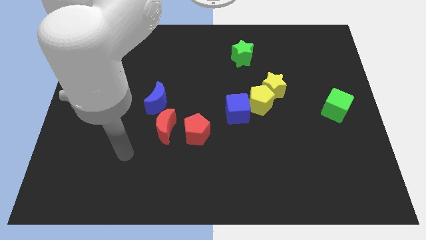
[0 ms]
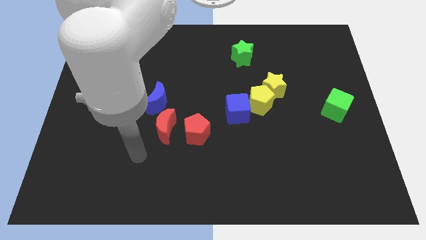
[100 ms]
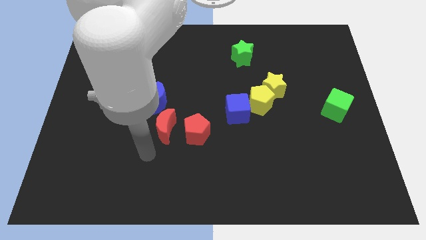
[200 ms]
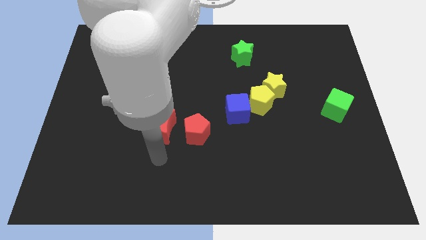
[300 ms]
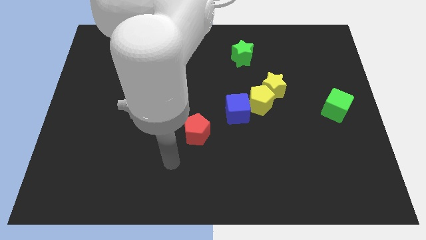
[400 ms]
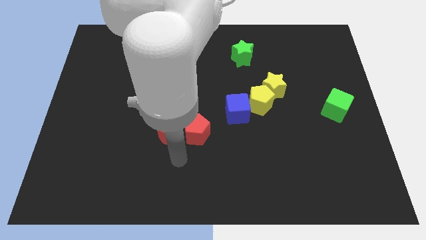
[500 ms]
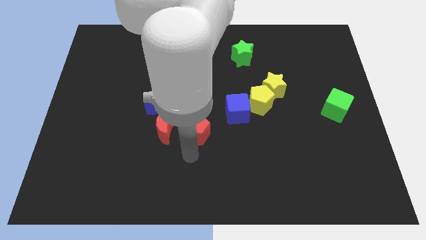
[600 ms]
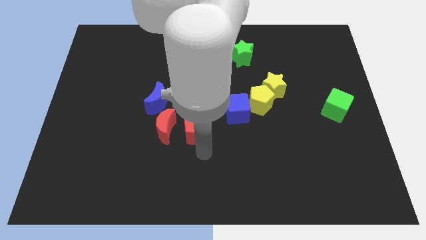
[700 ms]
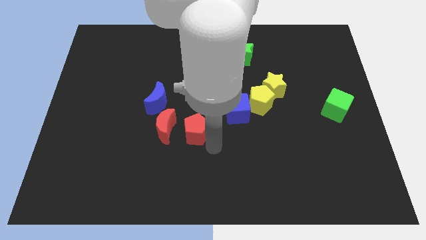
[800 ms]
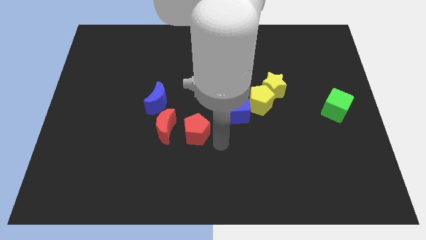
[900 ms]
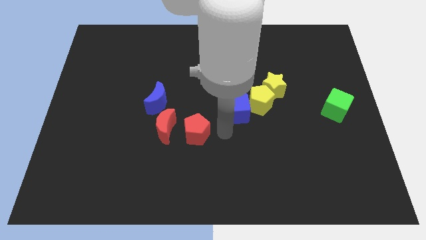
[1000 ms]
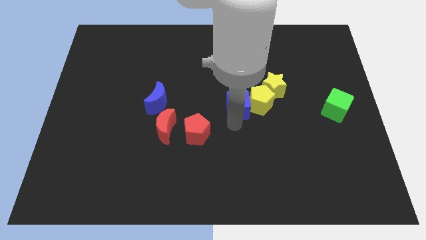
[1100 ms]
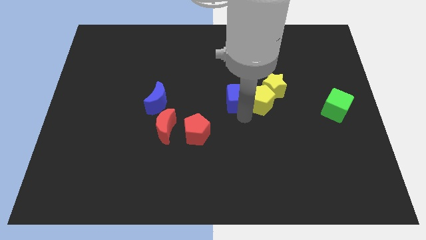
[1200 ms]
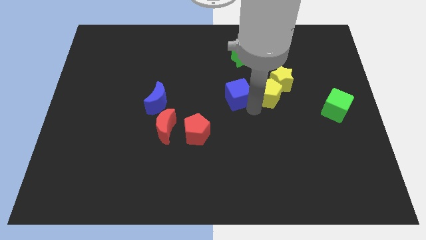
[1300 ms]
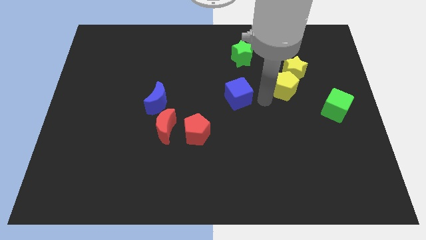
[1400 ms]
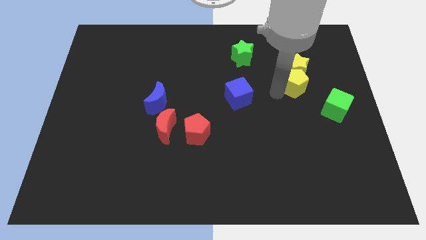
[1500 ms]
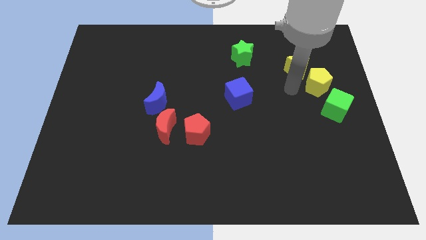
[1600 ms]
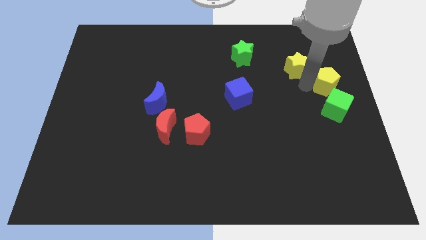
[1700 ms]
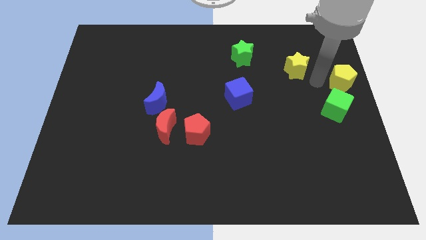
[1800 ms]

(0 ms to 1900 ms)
pull the yellow star apart from the yellow pentagon

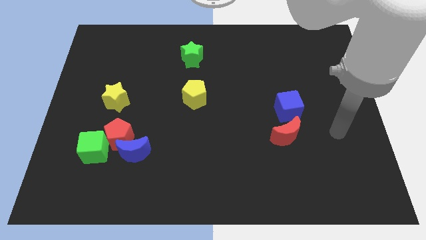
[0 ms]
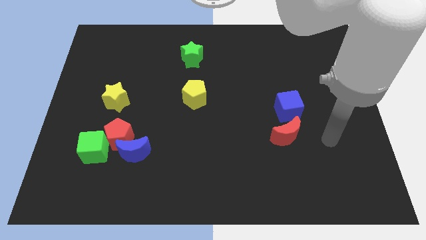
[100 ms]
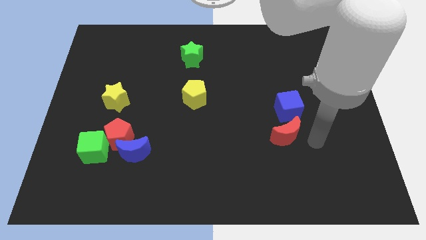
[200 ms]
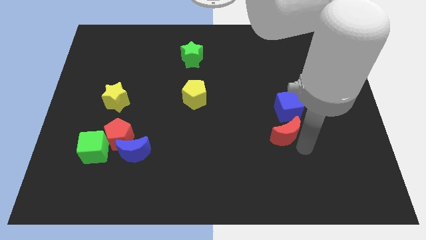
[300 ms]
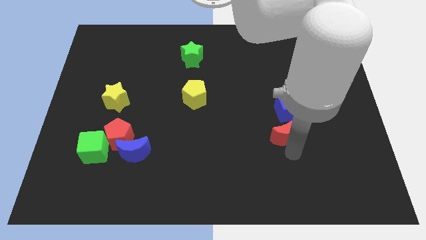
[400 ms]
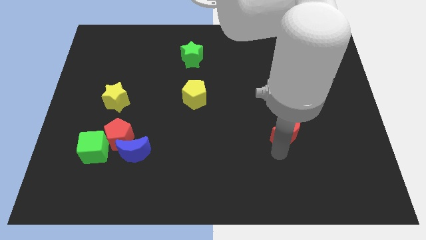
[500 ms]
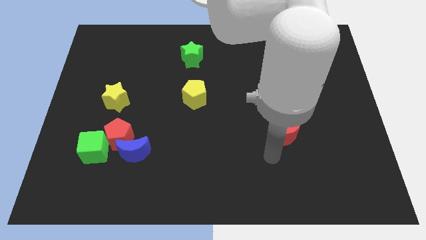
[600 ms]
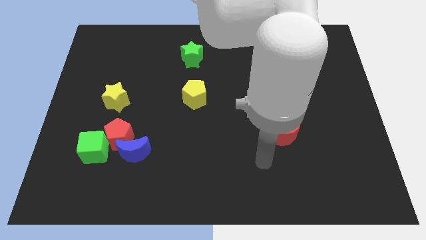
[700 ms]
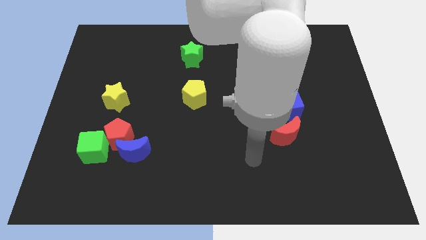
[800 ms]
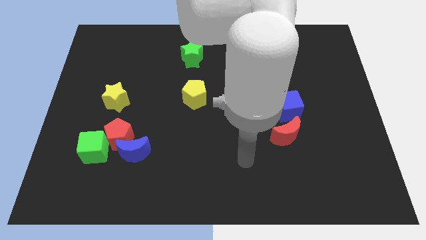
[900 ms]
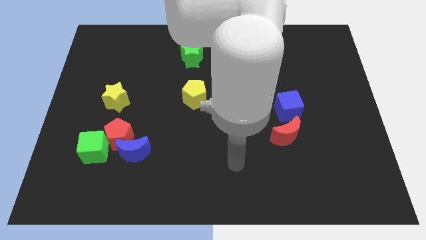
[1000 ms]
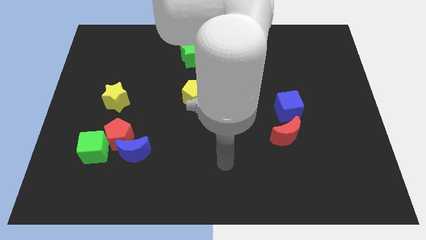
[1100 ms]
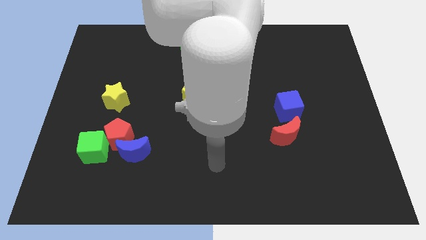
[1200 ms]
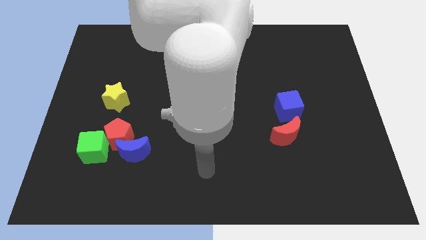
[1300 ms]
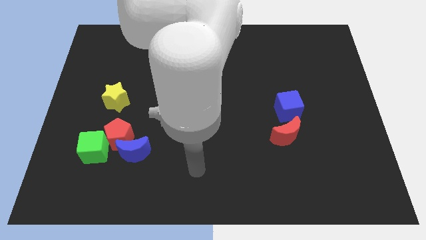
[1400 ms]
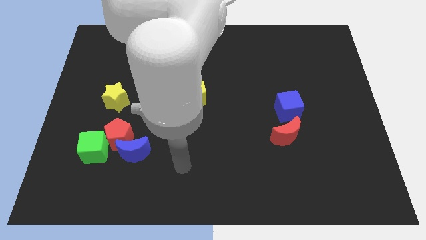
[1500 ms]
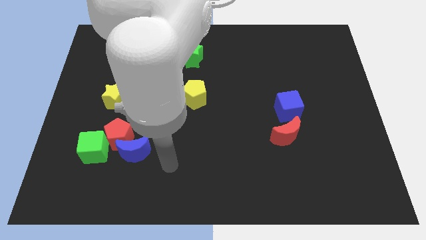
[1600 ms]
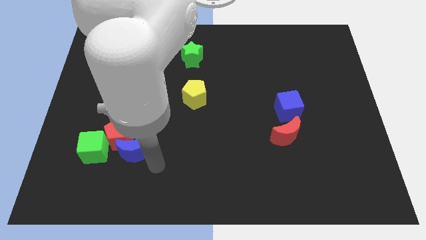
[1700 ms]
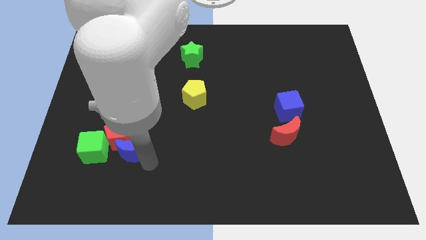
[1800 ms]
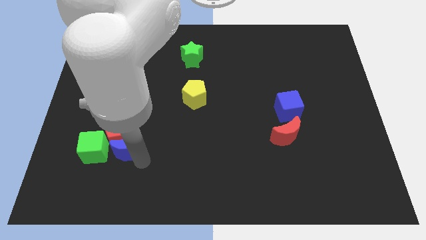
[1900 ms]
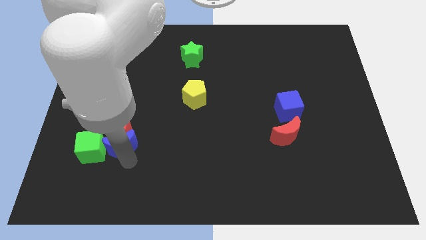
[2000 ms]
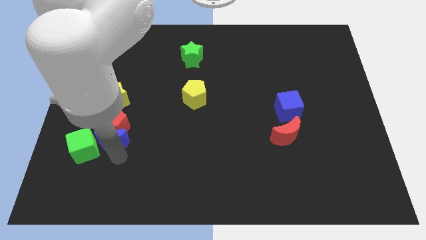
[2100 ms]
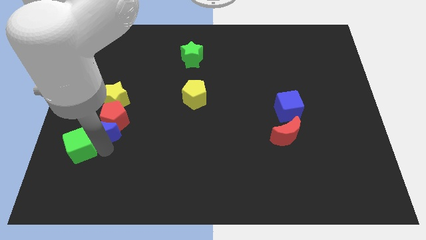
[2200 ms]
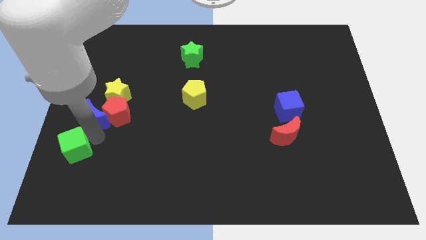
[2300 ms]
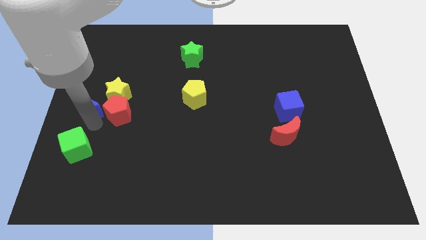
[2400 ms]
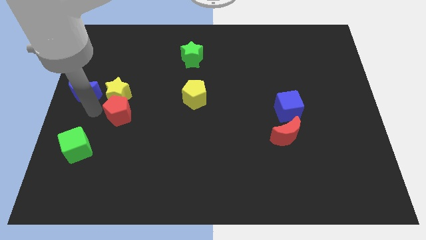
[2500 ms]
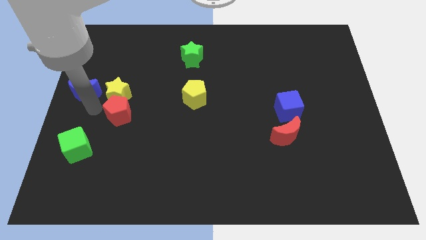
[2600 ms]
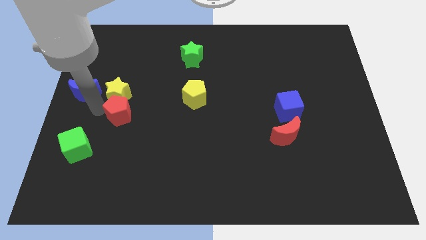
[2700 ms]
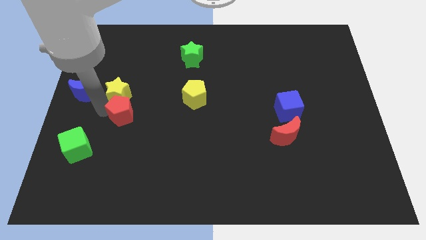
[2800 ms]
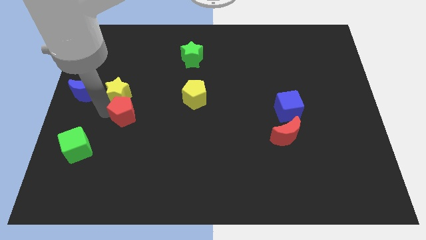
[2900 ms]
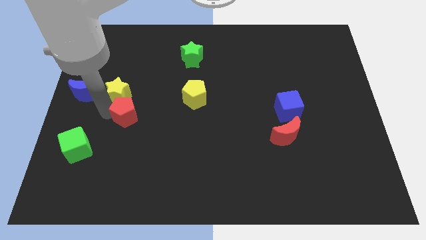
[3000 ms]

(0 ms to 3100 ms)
separate the red pentagon from the blue moon and green cube

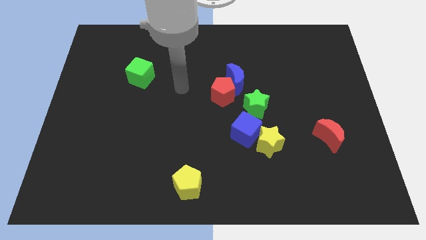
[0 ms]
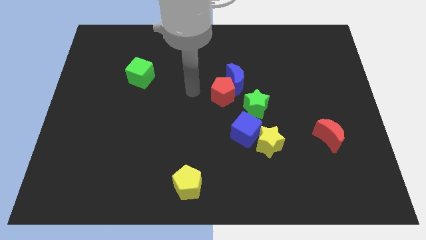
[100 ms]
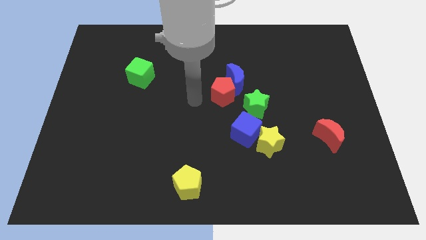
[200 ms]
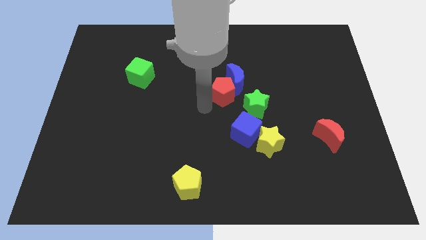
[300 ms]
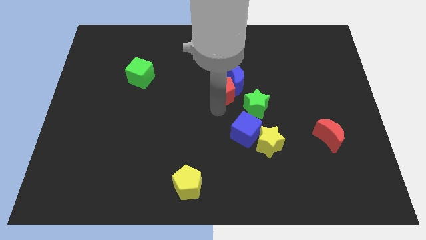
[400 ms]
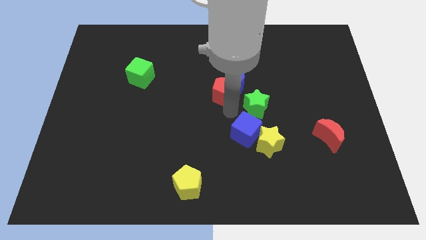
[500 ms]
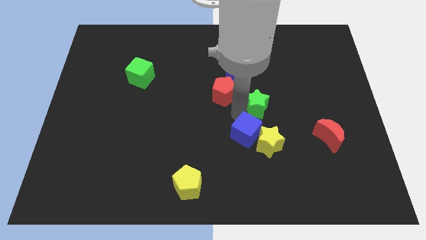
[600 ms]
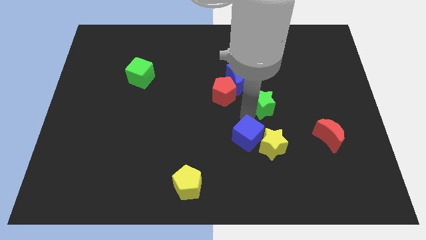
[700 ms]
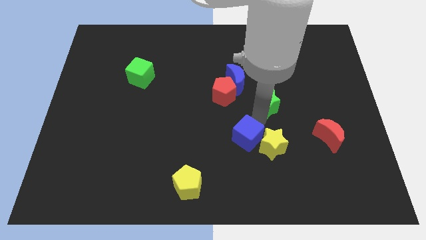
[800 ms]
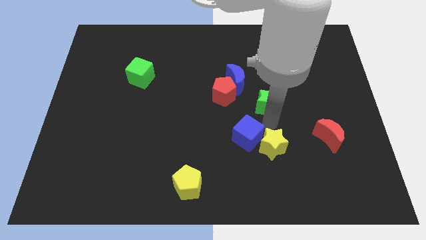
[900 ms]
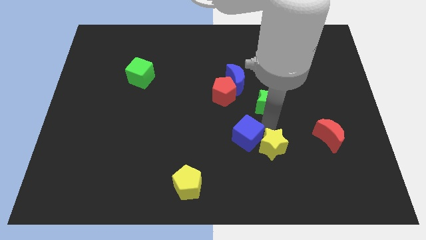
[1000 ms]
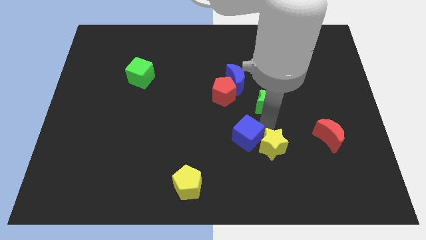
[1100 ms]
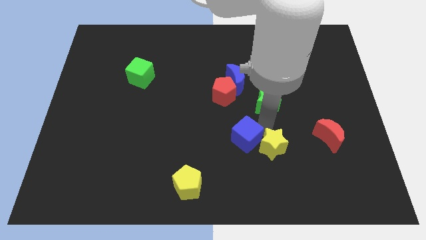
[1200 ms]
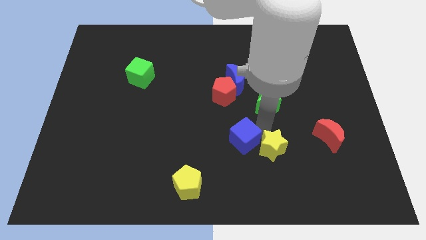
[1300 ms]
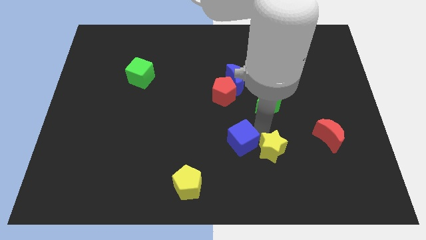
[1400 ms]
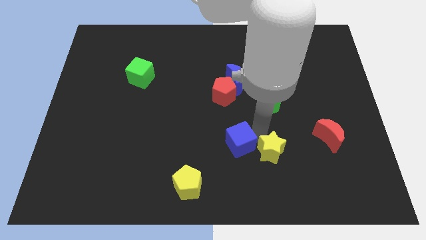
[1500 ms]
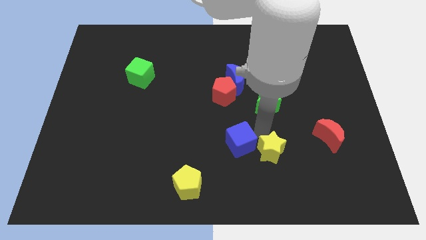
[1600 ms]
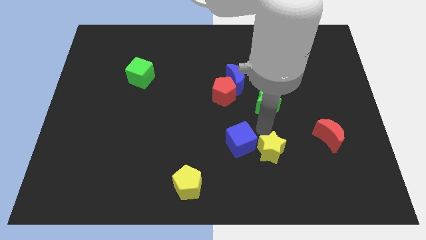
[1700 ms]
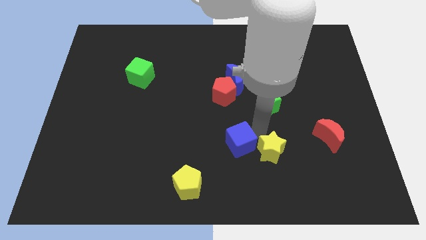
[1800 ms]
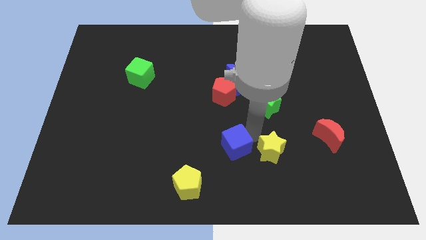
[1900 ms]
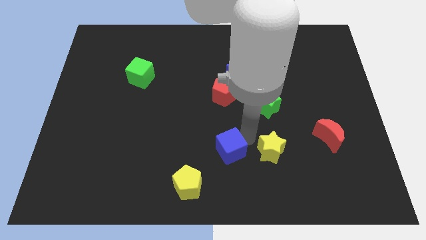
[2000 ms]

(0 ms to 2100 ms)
pull the blue cube apart from the yellow star and green star

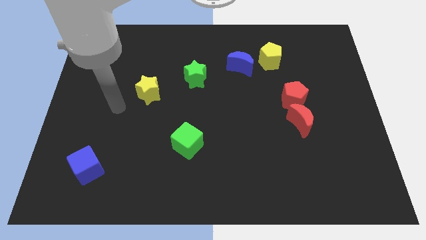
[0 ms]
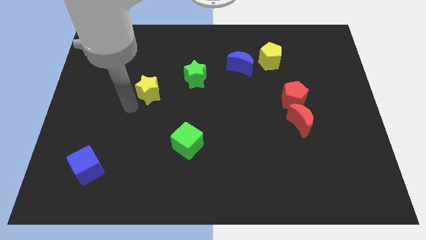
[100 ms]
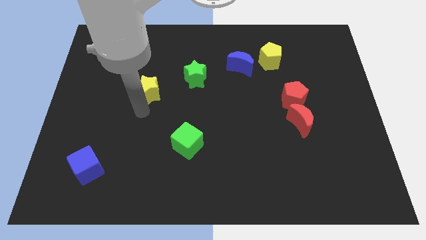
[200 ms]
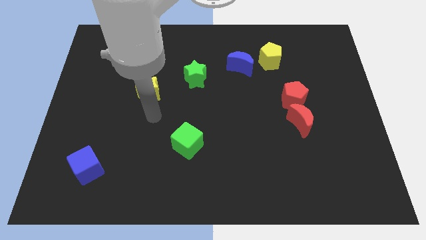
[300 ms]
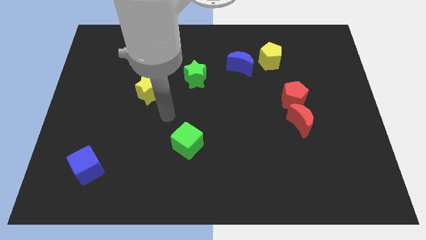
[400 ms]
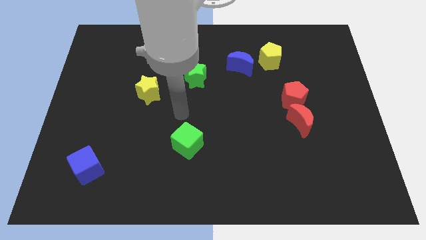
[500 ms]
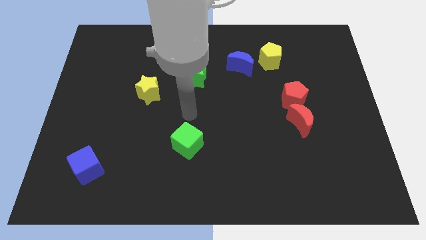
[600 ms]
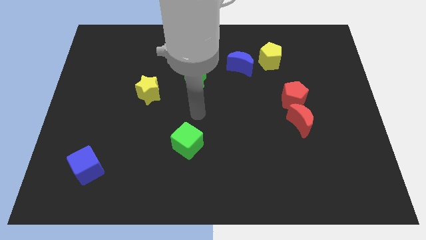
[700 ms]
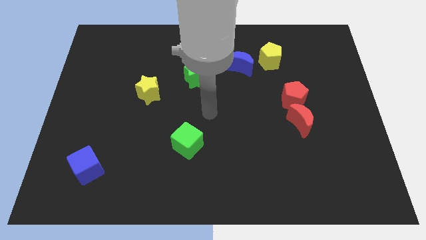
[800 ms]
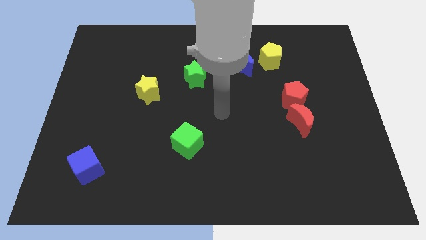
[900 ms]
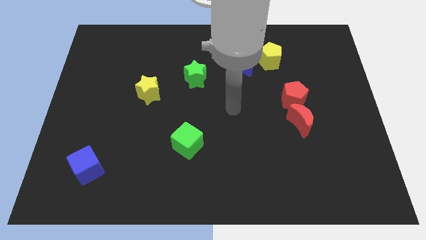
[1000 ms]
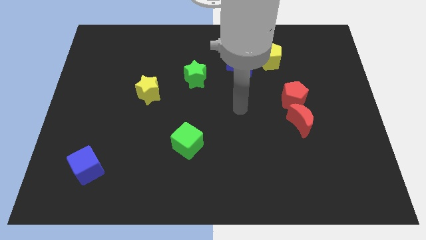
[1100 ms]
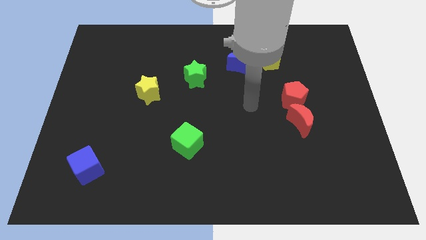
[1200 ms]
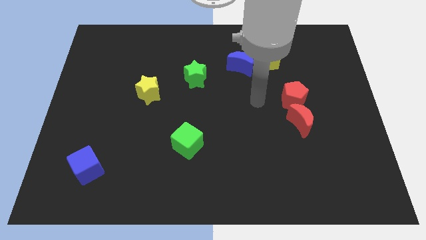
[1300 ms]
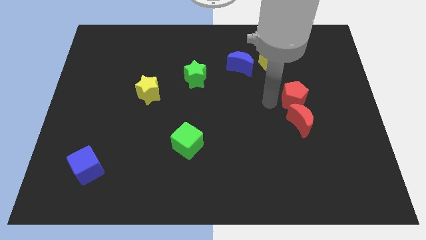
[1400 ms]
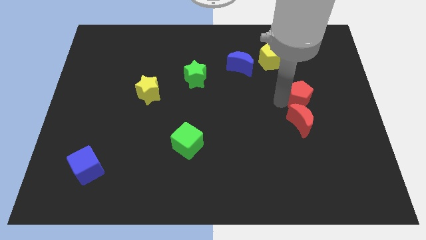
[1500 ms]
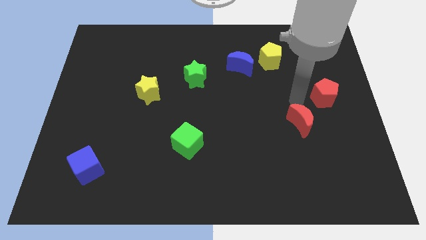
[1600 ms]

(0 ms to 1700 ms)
separate the red moon from the red pentagon

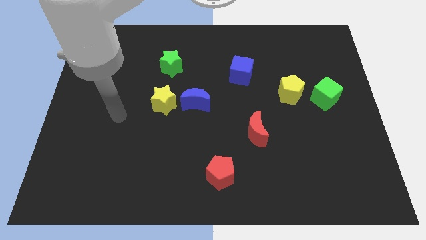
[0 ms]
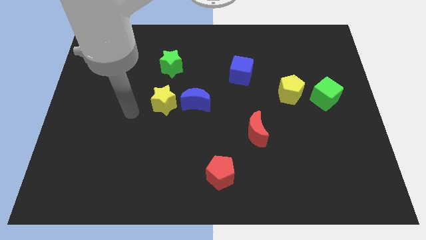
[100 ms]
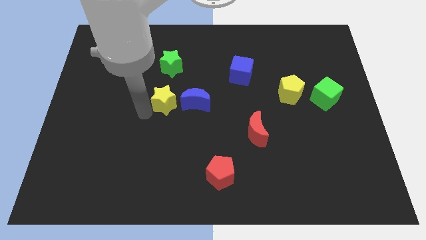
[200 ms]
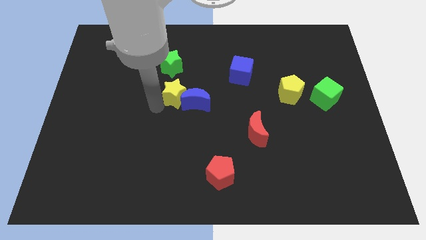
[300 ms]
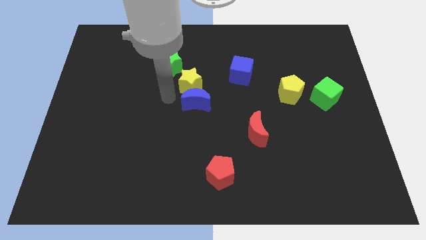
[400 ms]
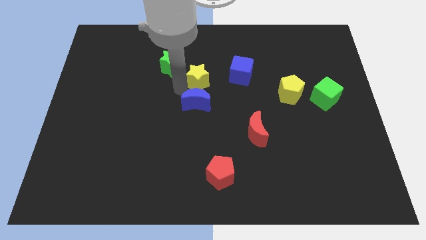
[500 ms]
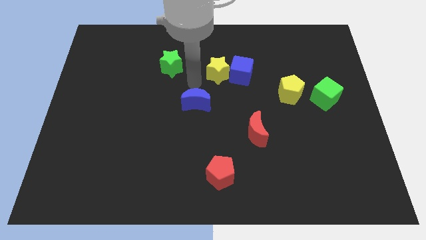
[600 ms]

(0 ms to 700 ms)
separate the blue moon from the yellow star
